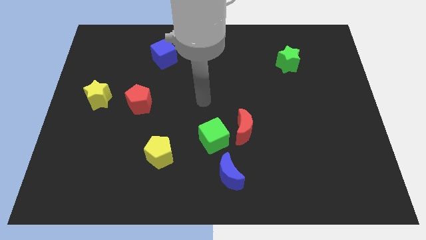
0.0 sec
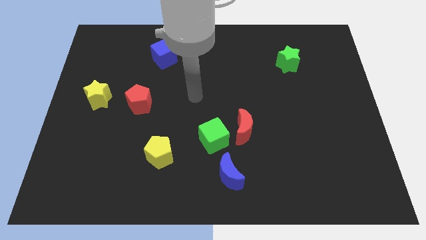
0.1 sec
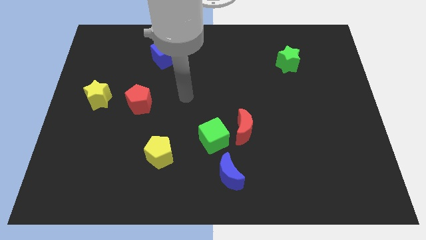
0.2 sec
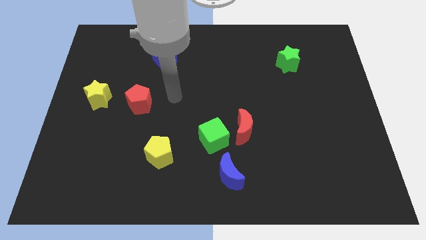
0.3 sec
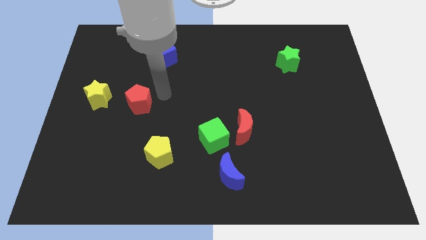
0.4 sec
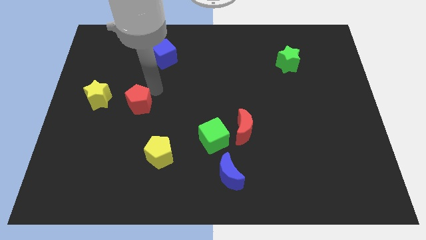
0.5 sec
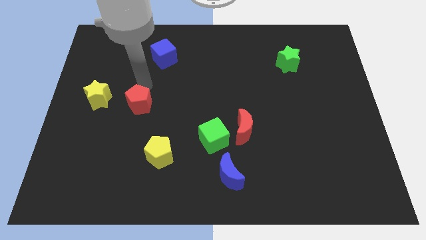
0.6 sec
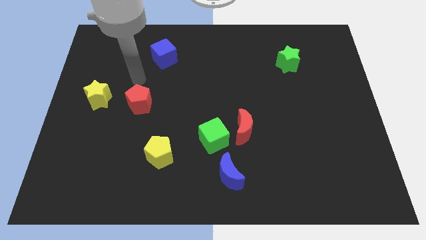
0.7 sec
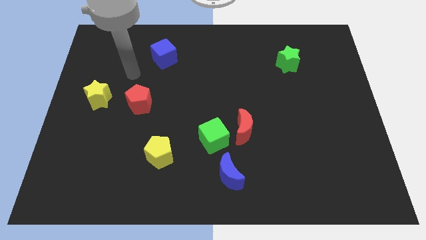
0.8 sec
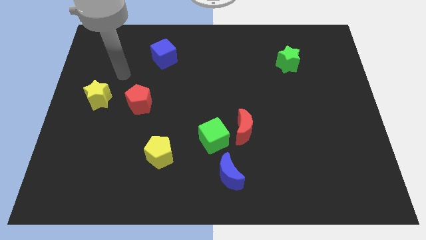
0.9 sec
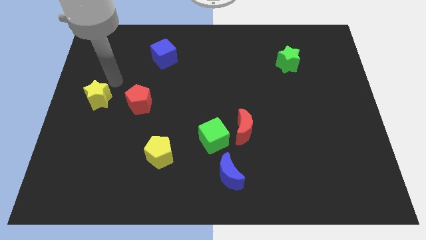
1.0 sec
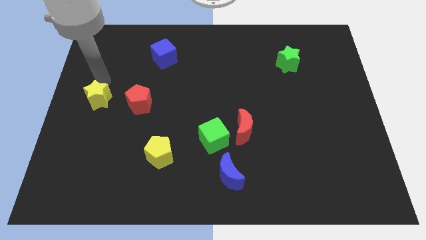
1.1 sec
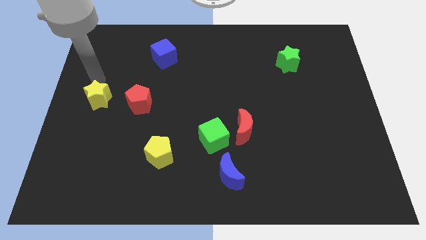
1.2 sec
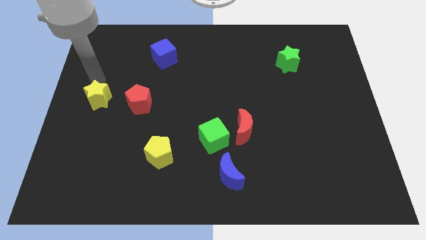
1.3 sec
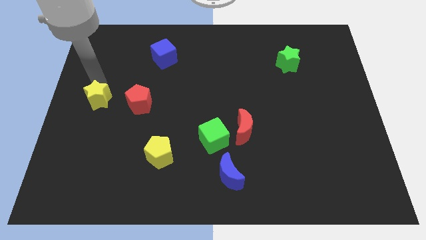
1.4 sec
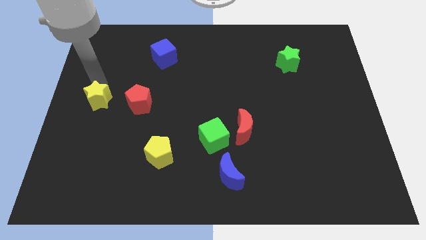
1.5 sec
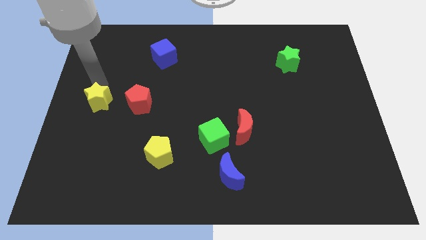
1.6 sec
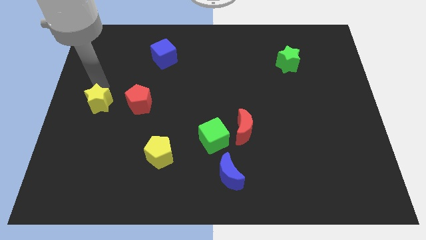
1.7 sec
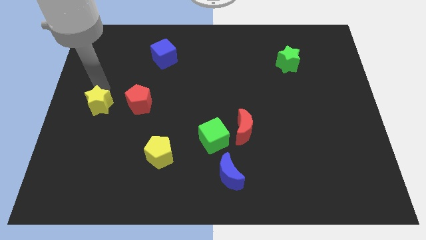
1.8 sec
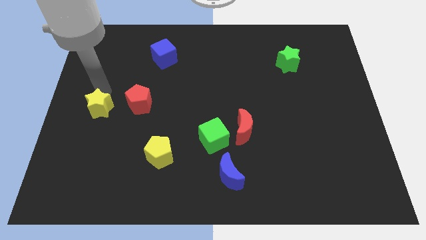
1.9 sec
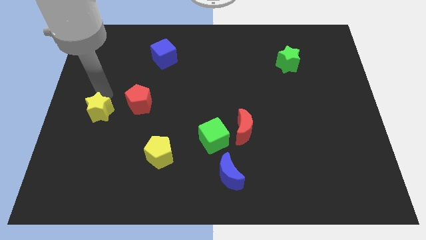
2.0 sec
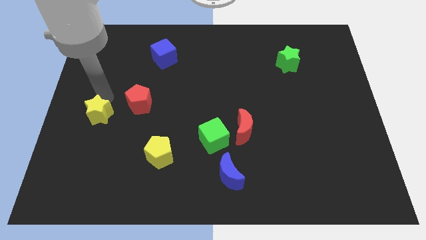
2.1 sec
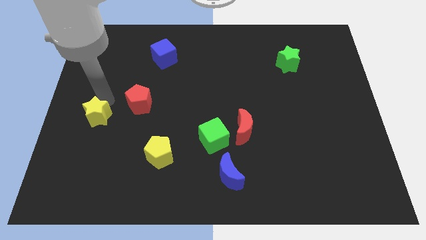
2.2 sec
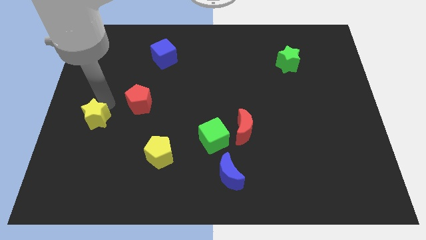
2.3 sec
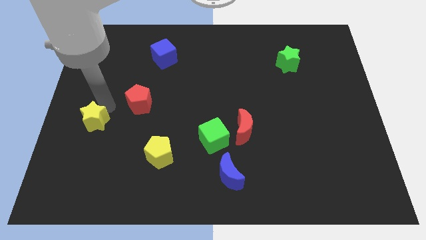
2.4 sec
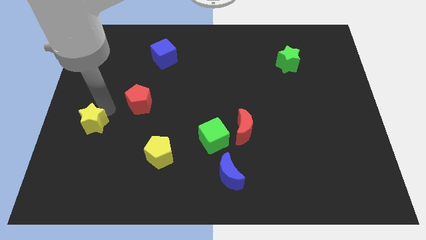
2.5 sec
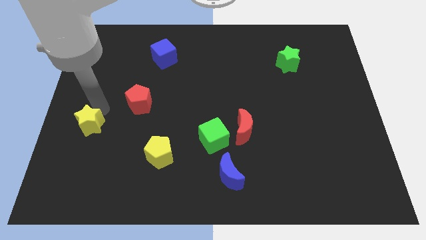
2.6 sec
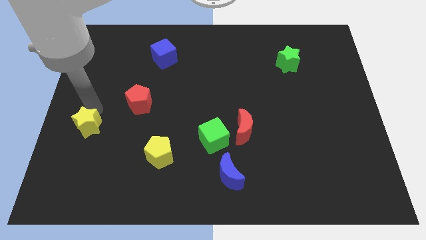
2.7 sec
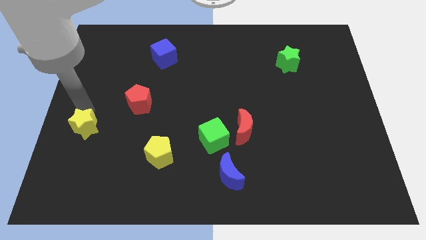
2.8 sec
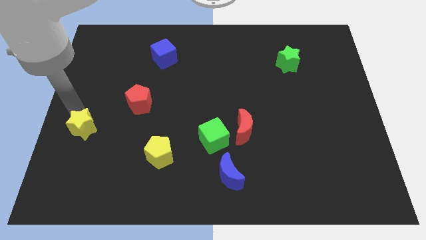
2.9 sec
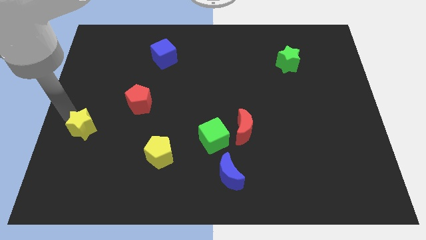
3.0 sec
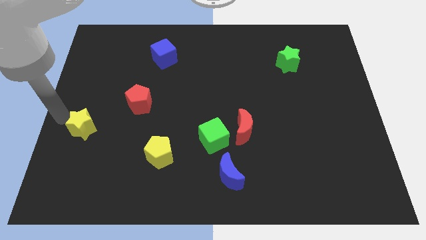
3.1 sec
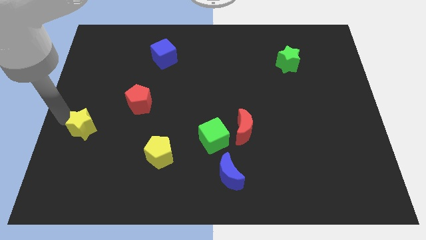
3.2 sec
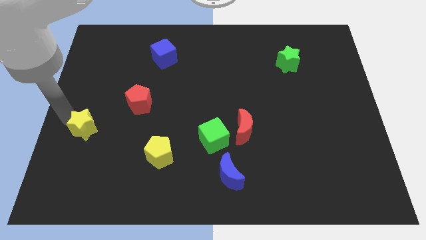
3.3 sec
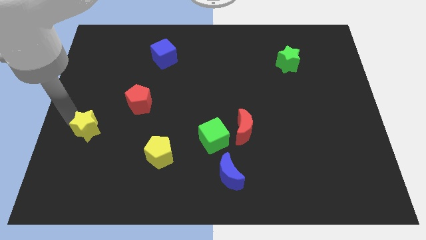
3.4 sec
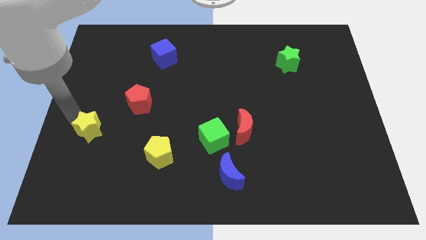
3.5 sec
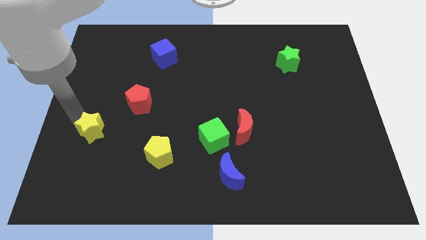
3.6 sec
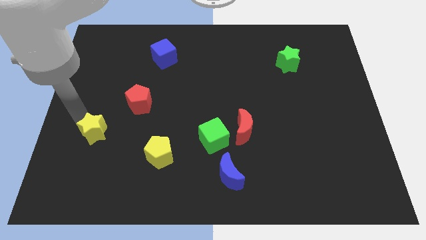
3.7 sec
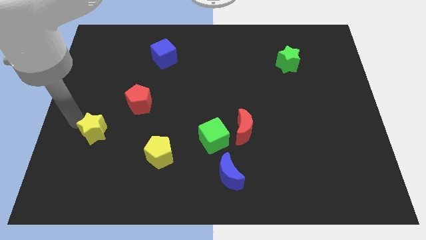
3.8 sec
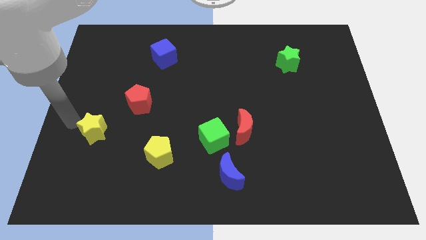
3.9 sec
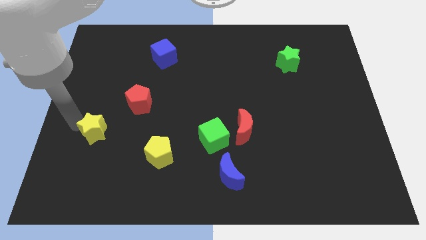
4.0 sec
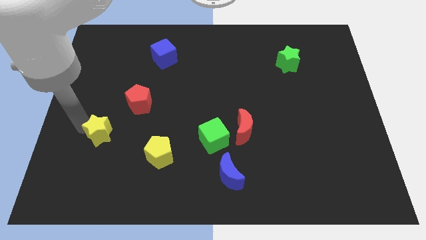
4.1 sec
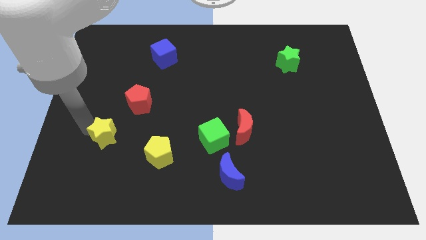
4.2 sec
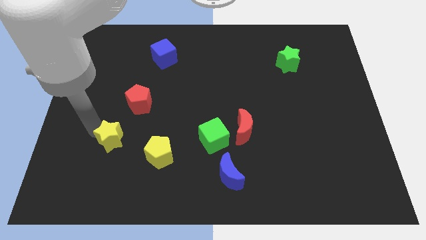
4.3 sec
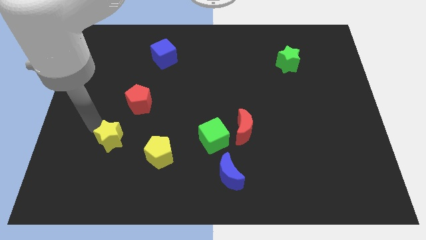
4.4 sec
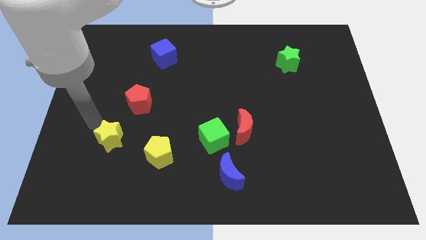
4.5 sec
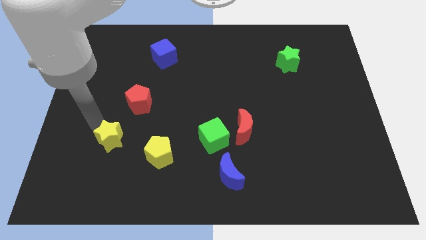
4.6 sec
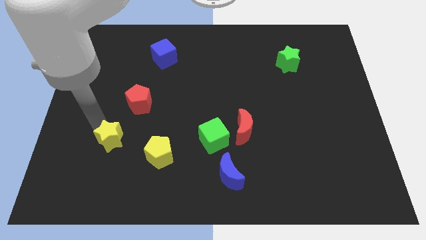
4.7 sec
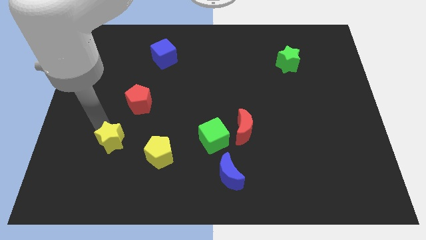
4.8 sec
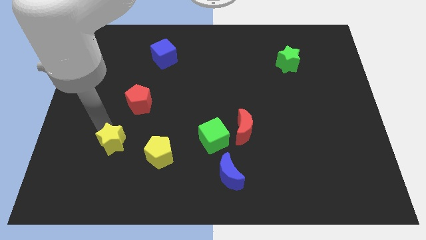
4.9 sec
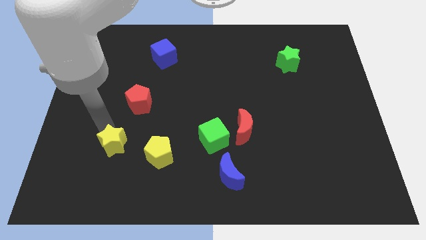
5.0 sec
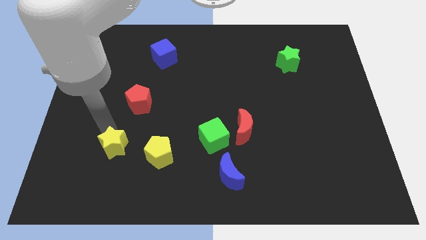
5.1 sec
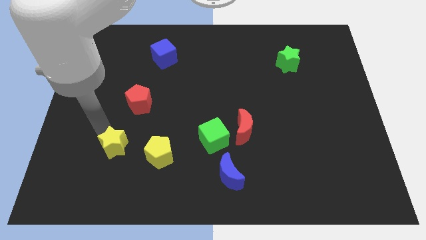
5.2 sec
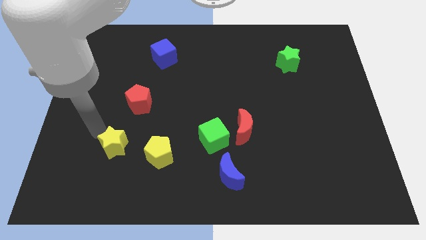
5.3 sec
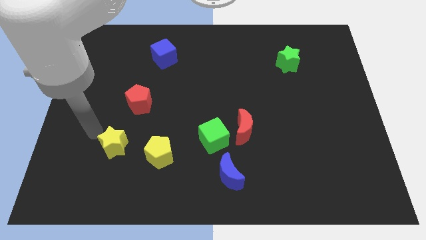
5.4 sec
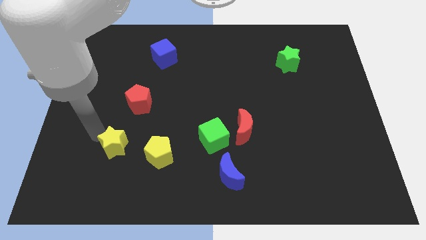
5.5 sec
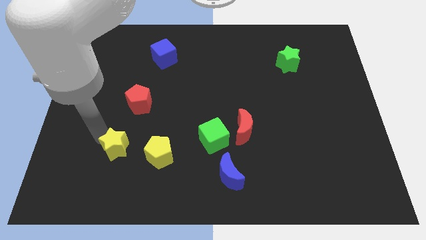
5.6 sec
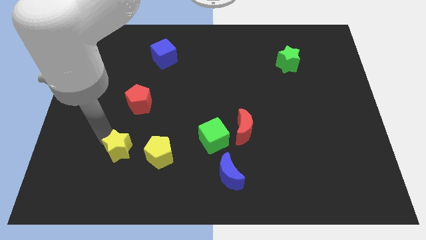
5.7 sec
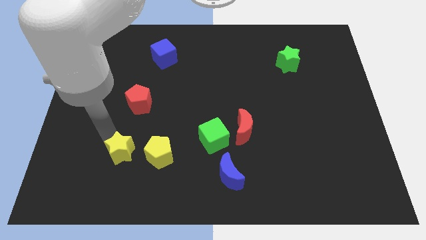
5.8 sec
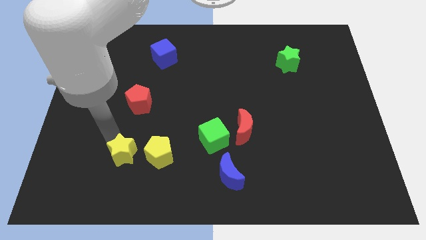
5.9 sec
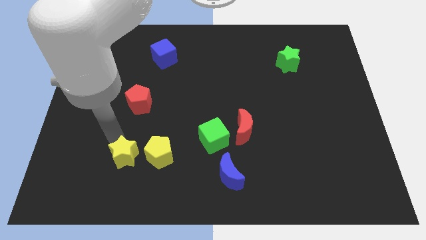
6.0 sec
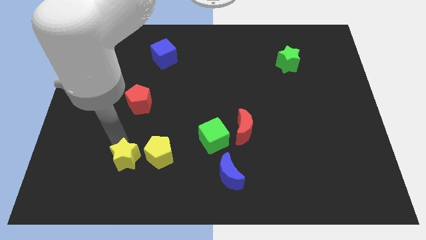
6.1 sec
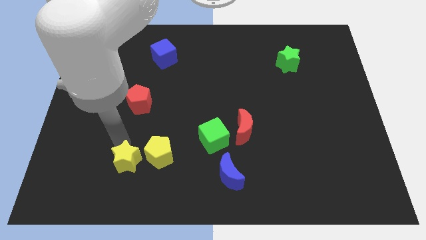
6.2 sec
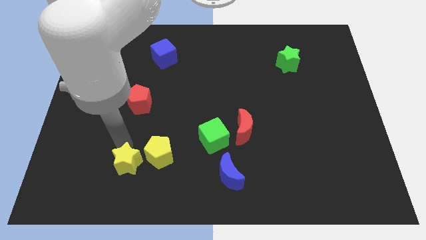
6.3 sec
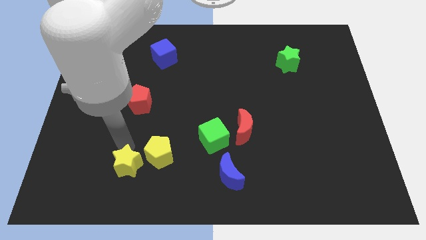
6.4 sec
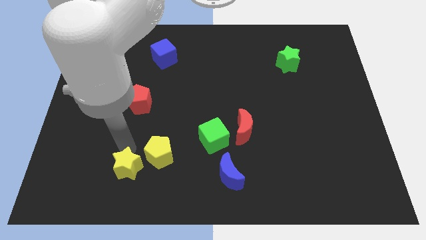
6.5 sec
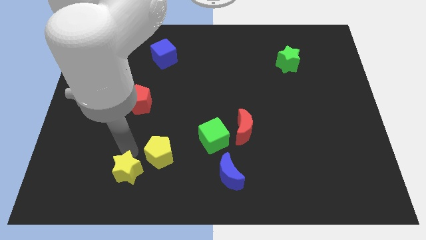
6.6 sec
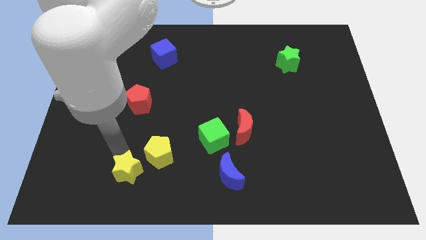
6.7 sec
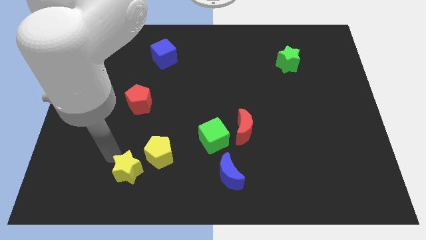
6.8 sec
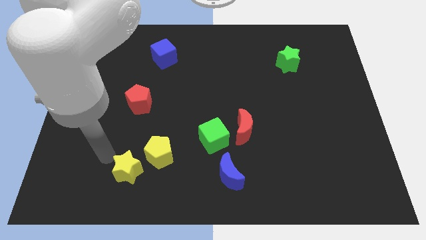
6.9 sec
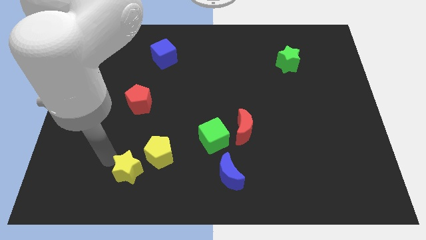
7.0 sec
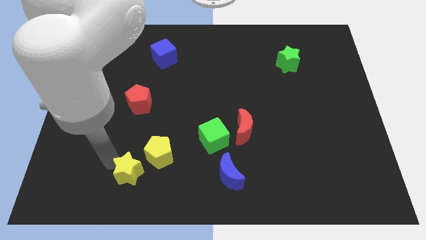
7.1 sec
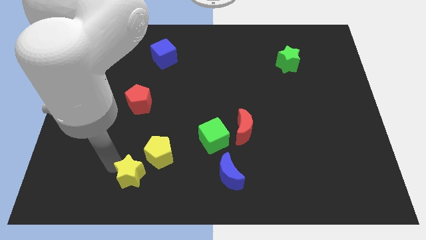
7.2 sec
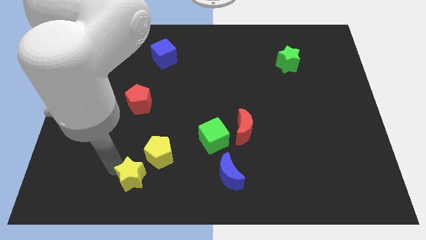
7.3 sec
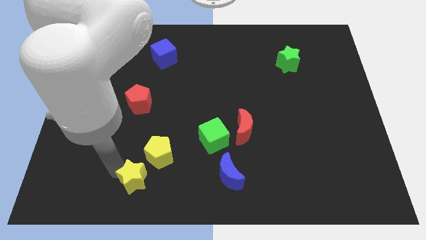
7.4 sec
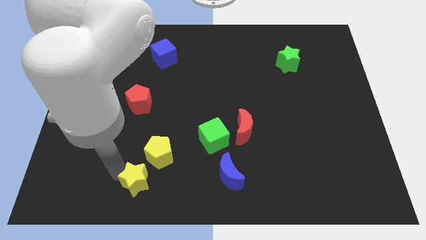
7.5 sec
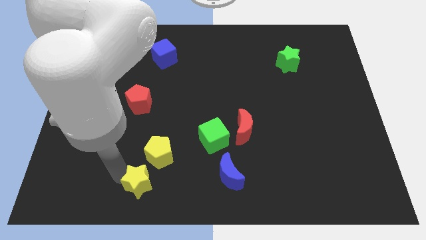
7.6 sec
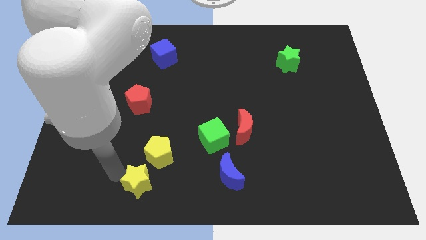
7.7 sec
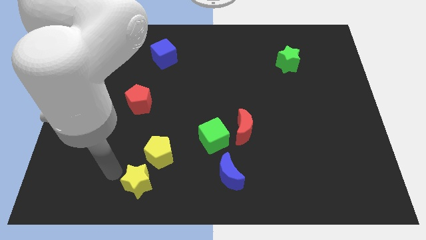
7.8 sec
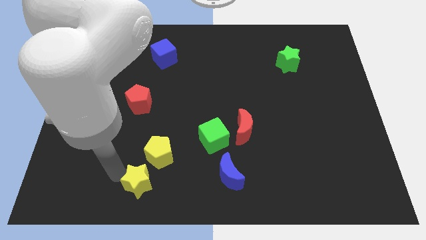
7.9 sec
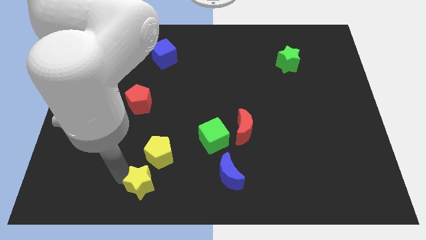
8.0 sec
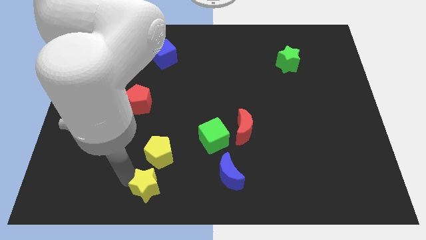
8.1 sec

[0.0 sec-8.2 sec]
move the yellow star to the bottom side
